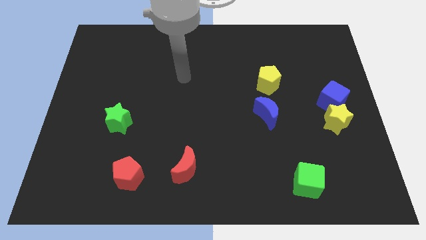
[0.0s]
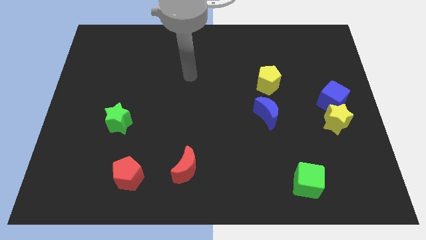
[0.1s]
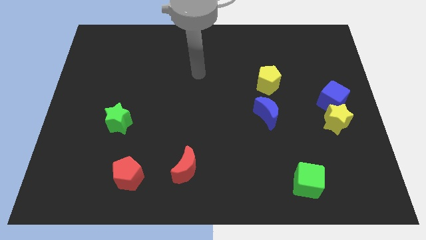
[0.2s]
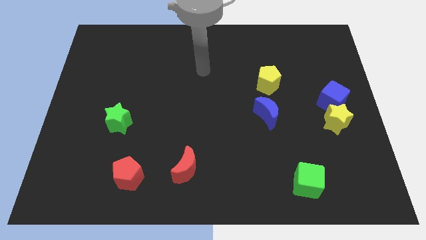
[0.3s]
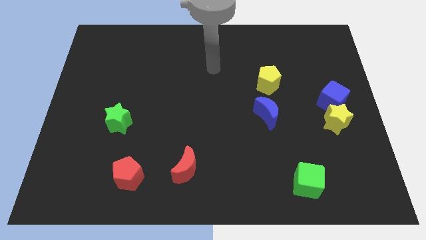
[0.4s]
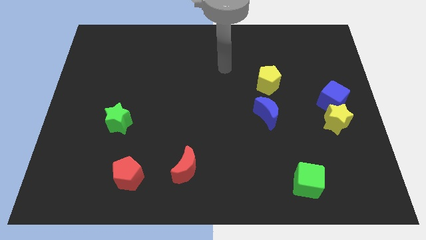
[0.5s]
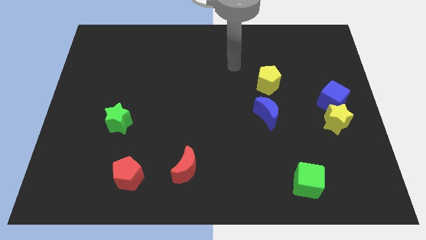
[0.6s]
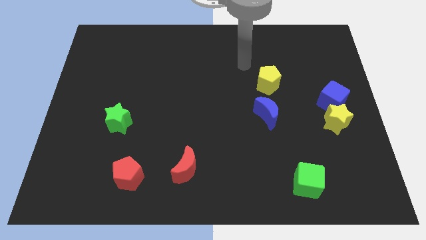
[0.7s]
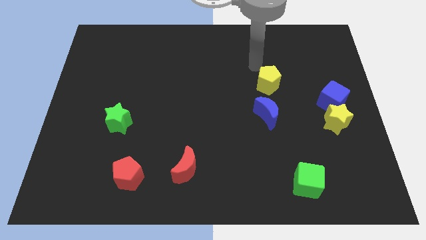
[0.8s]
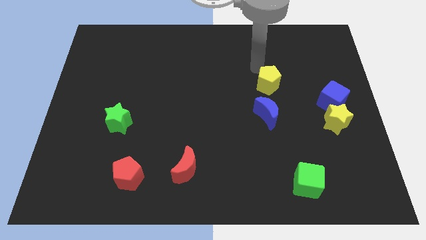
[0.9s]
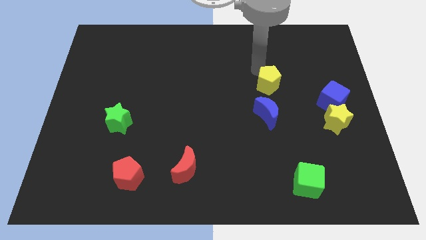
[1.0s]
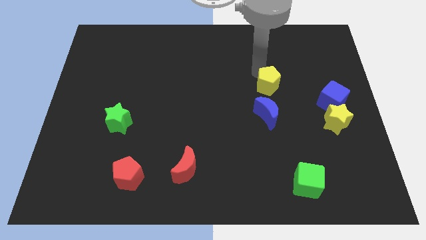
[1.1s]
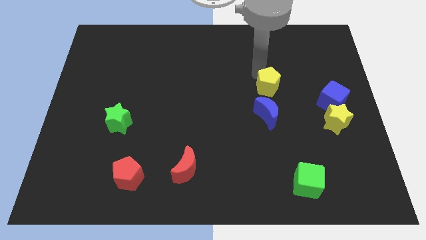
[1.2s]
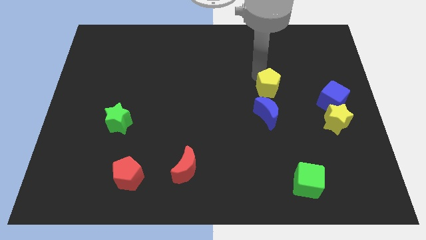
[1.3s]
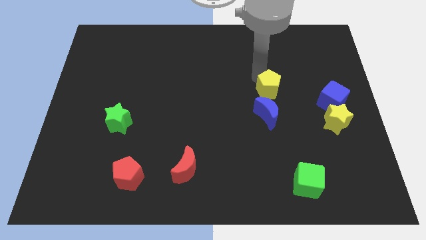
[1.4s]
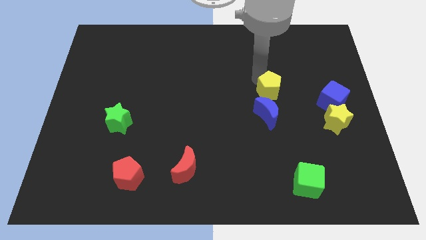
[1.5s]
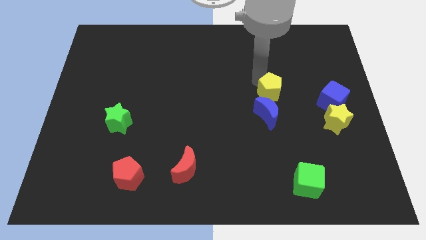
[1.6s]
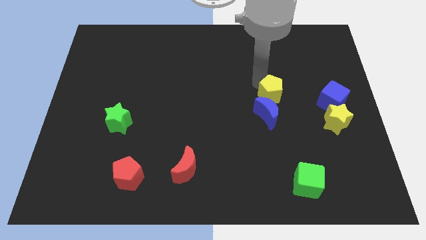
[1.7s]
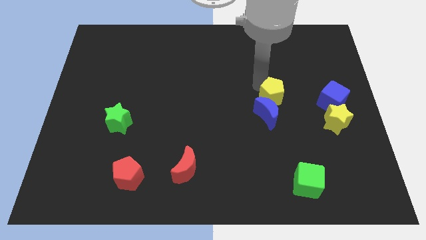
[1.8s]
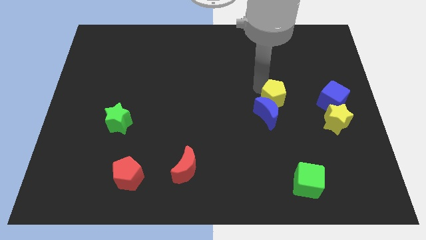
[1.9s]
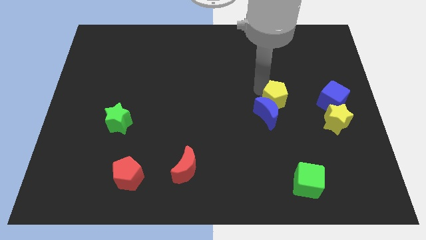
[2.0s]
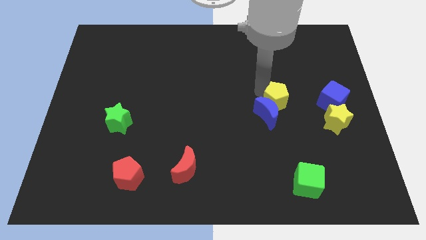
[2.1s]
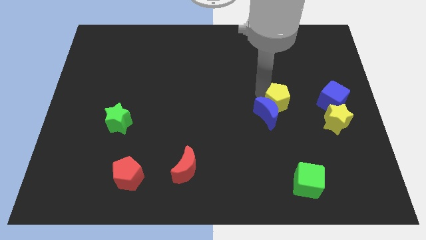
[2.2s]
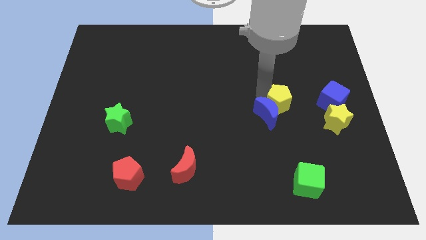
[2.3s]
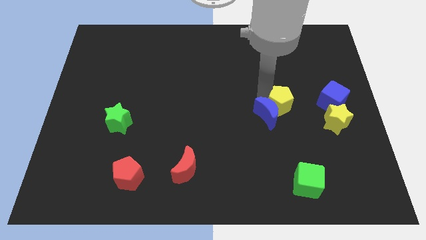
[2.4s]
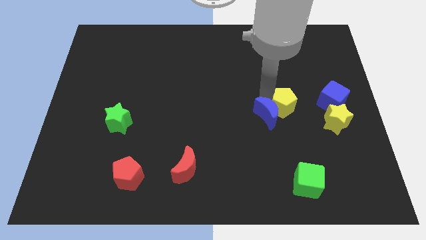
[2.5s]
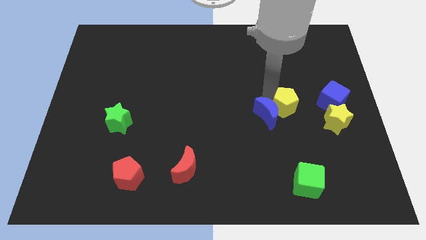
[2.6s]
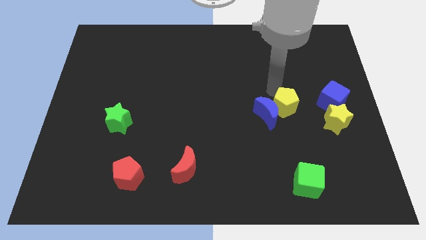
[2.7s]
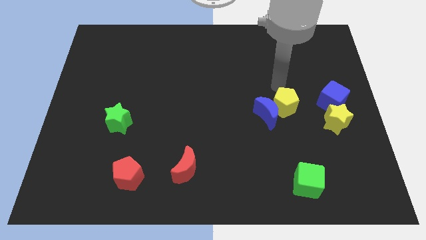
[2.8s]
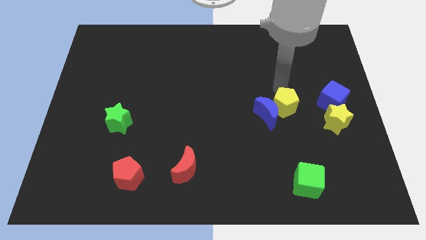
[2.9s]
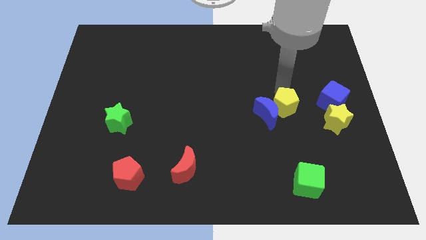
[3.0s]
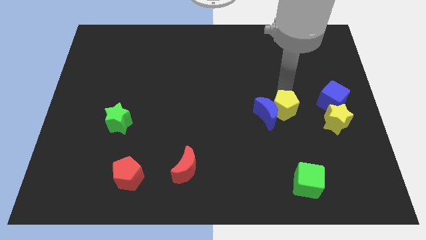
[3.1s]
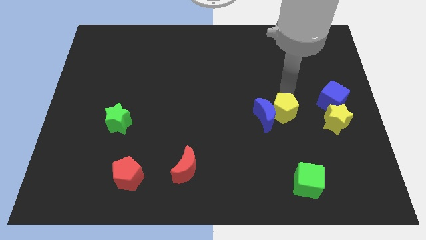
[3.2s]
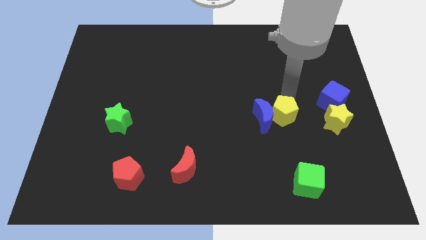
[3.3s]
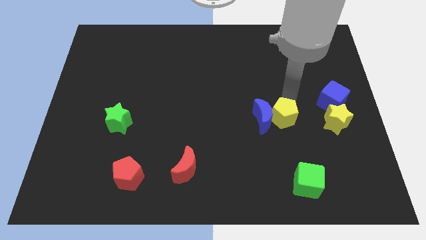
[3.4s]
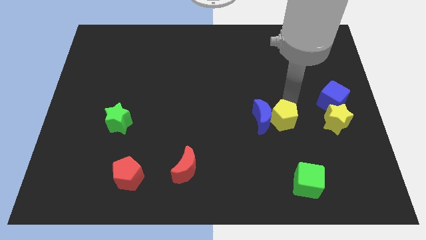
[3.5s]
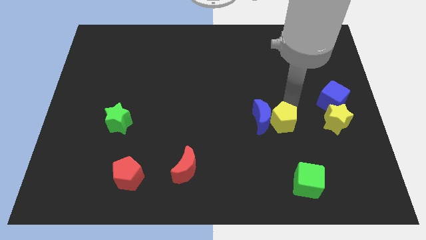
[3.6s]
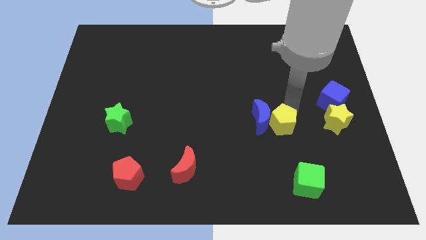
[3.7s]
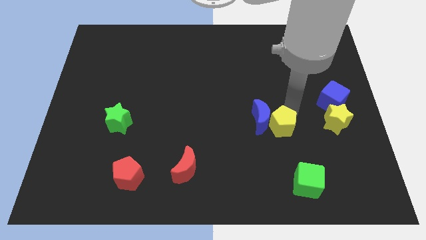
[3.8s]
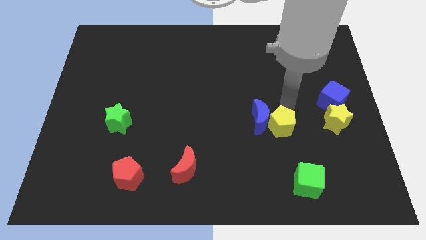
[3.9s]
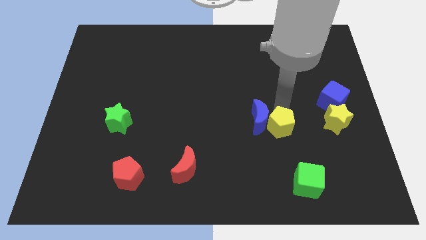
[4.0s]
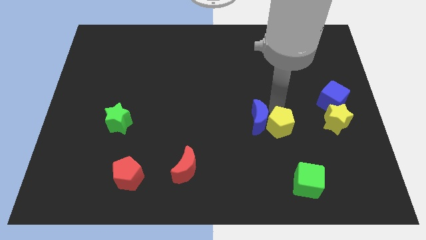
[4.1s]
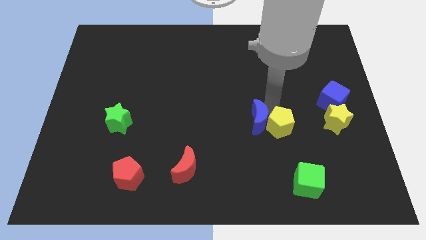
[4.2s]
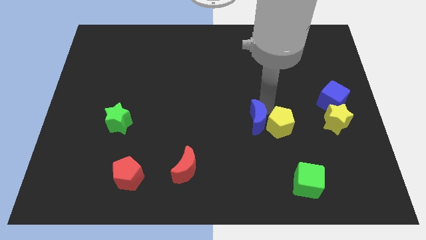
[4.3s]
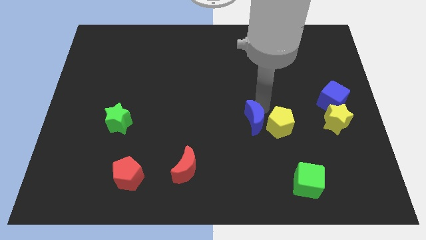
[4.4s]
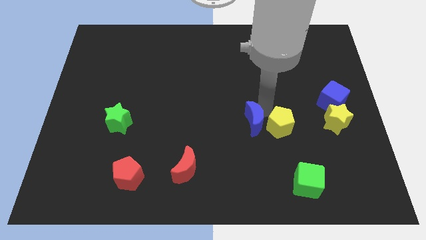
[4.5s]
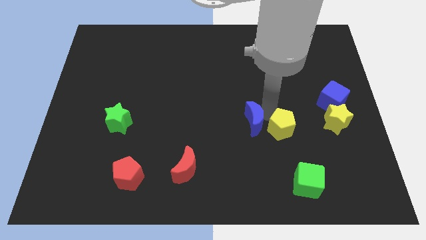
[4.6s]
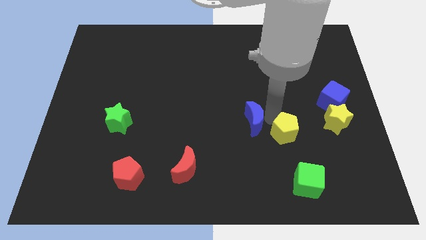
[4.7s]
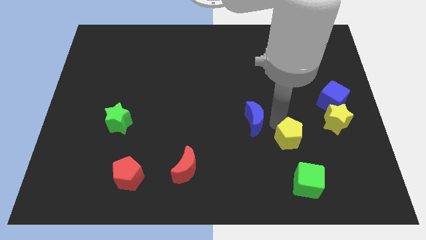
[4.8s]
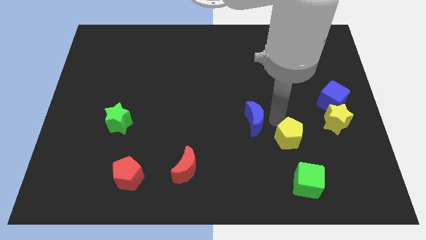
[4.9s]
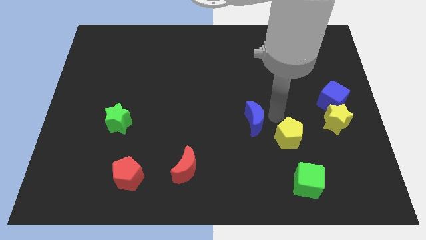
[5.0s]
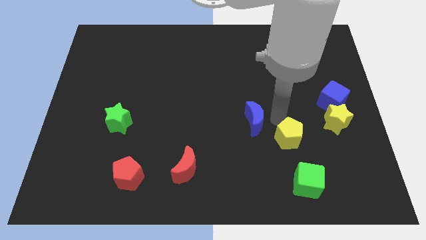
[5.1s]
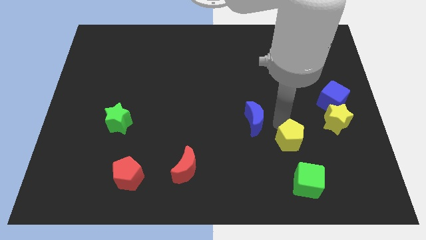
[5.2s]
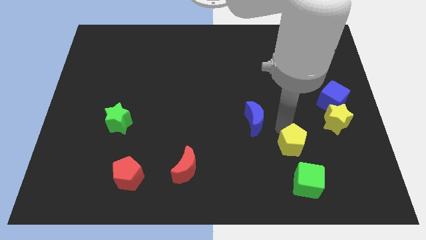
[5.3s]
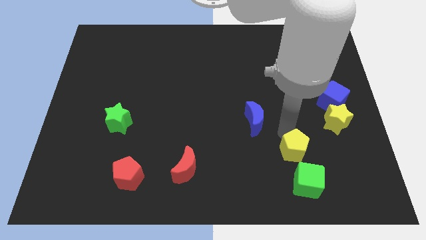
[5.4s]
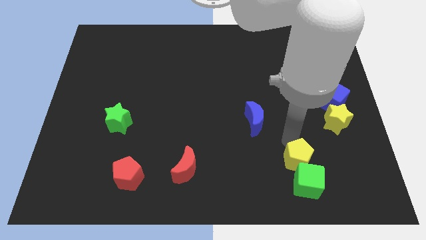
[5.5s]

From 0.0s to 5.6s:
push the yellow pentagon close to the green cube

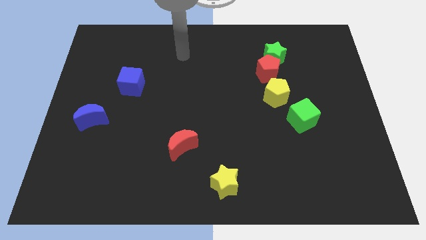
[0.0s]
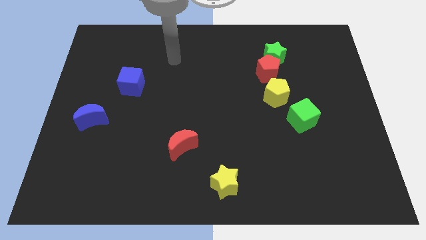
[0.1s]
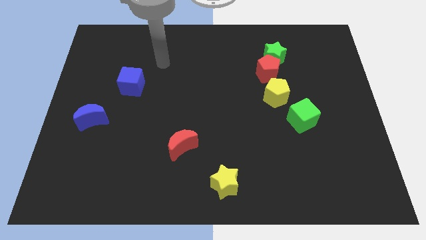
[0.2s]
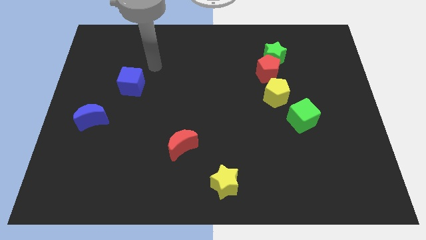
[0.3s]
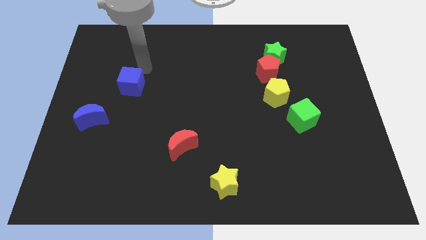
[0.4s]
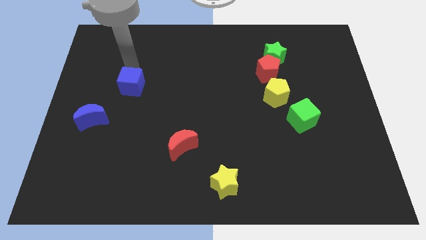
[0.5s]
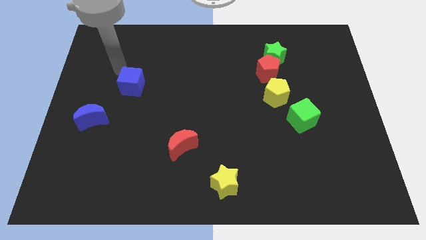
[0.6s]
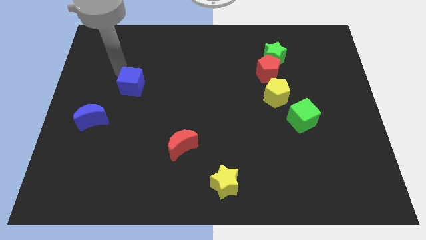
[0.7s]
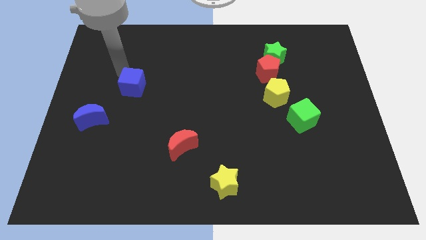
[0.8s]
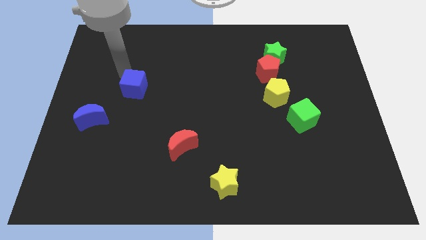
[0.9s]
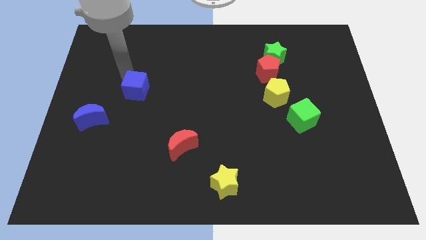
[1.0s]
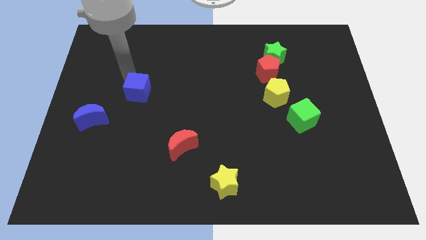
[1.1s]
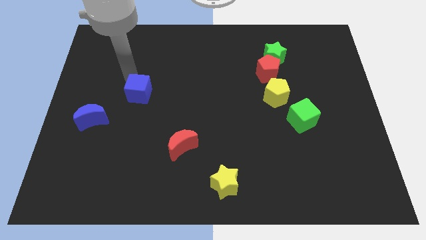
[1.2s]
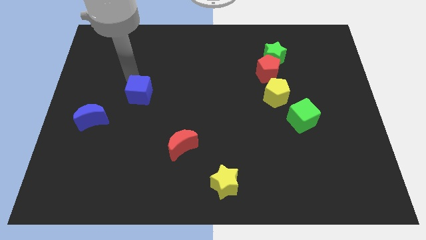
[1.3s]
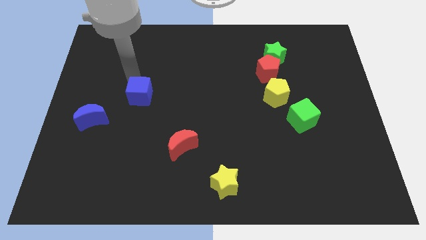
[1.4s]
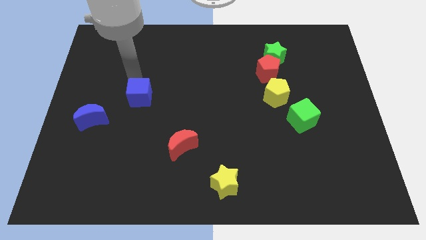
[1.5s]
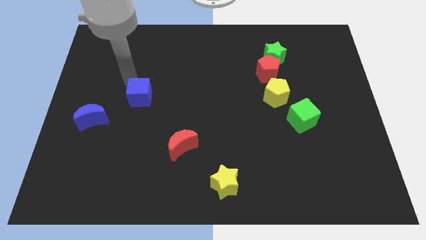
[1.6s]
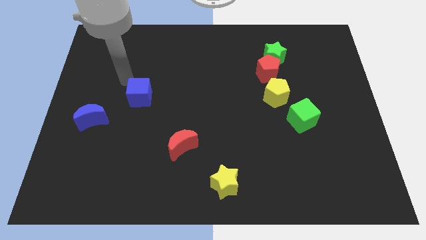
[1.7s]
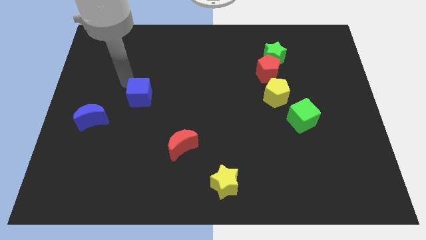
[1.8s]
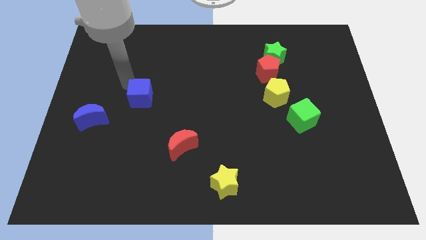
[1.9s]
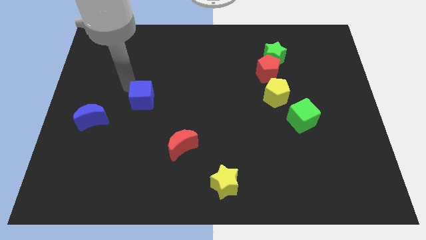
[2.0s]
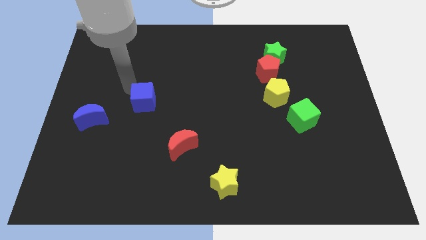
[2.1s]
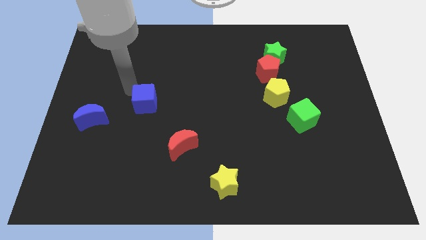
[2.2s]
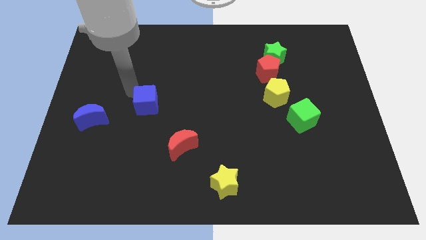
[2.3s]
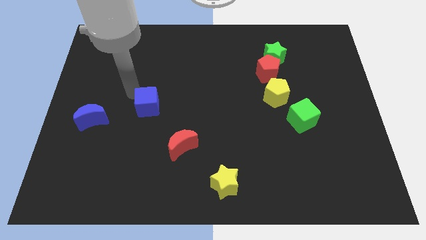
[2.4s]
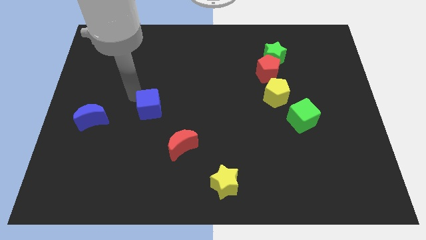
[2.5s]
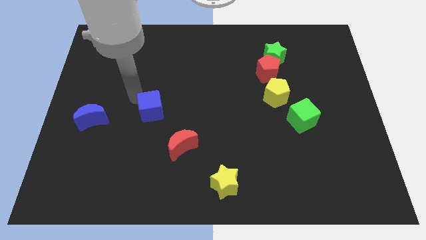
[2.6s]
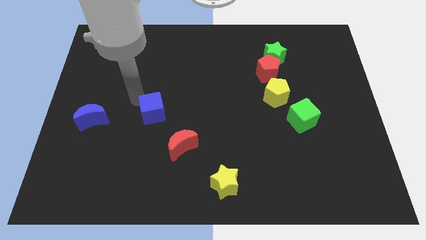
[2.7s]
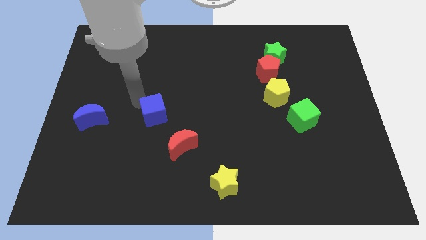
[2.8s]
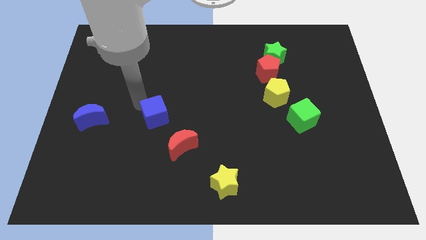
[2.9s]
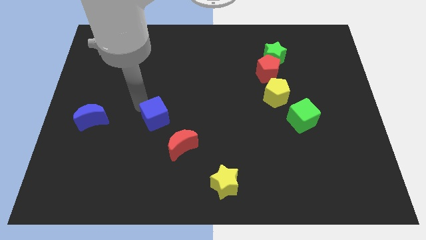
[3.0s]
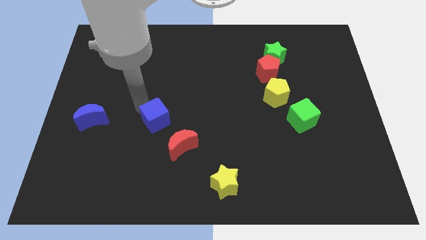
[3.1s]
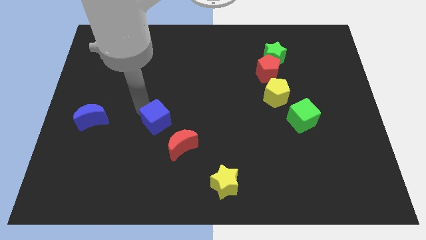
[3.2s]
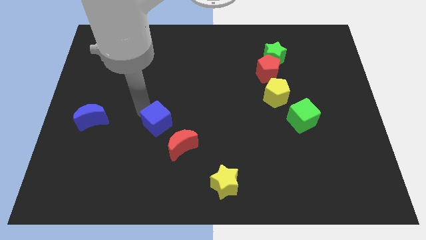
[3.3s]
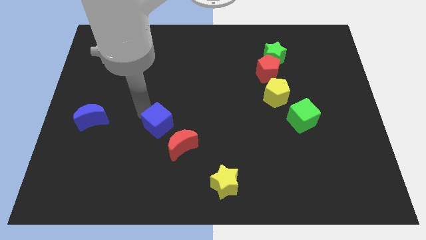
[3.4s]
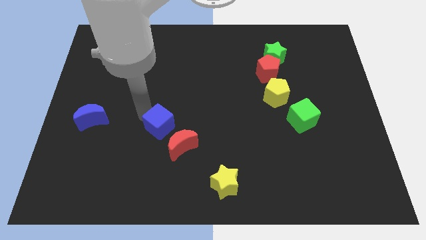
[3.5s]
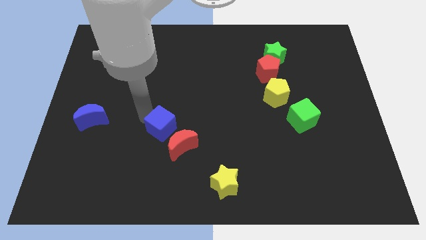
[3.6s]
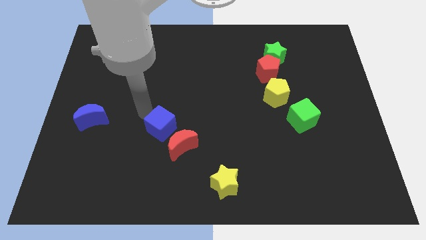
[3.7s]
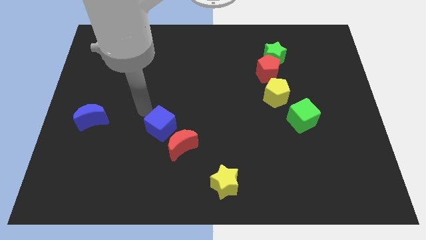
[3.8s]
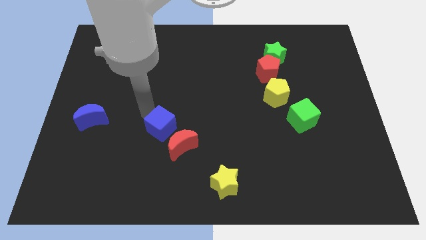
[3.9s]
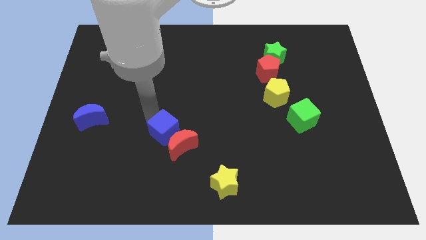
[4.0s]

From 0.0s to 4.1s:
push the blue cube to the red moon
